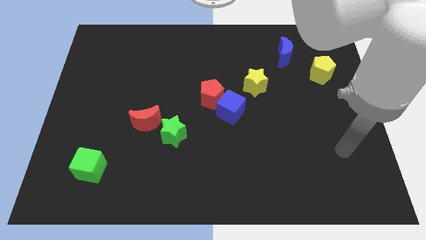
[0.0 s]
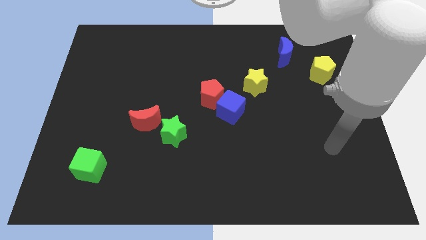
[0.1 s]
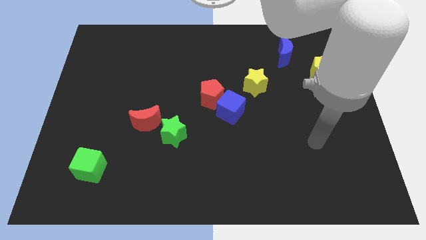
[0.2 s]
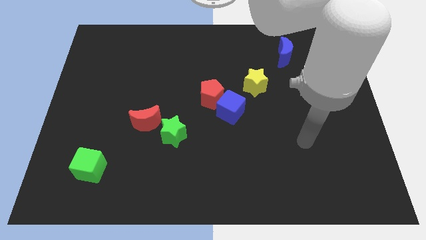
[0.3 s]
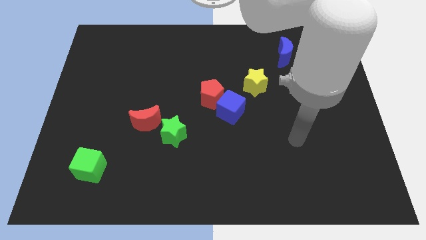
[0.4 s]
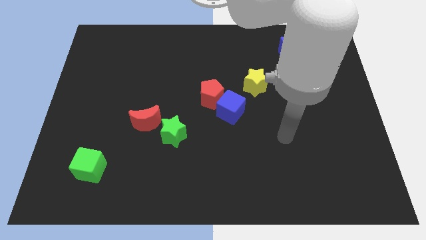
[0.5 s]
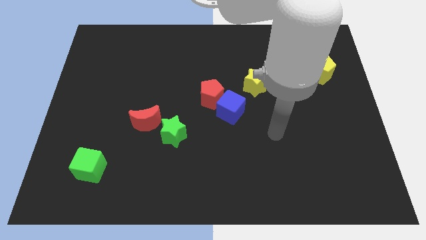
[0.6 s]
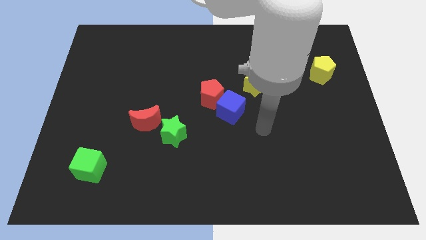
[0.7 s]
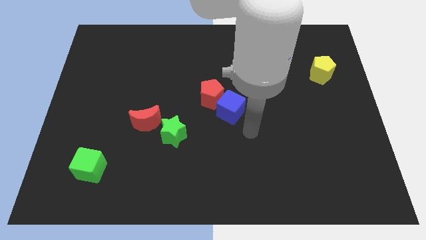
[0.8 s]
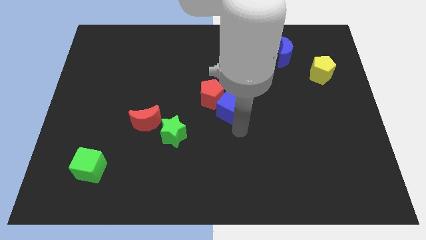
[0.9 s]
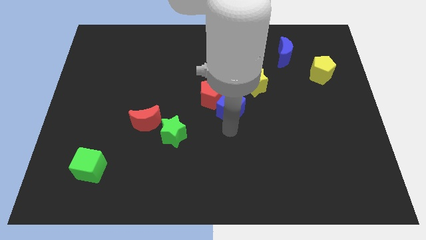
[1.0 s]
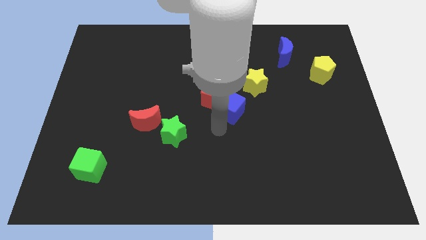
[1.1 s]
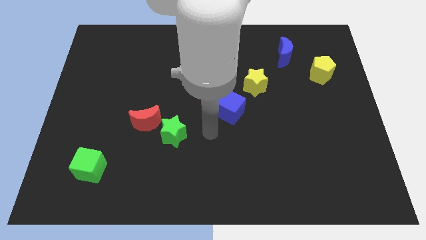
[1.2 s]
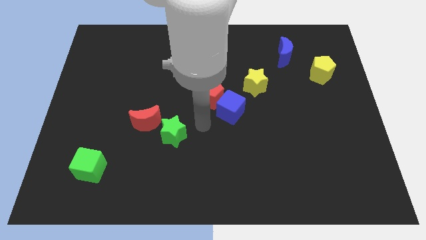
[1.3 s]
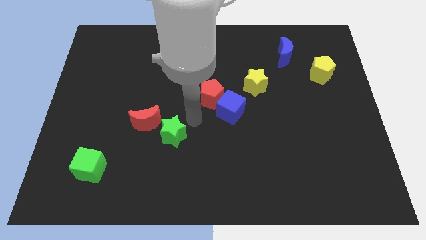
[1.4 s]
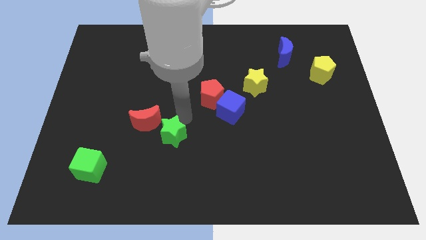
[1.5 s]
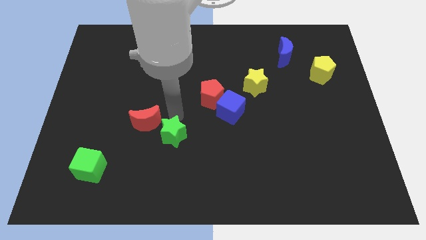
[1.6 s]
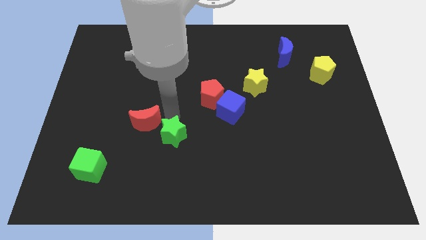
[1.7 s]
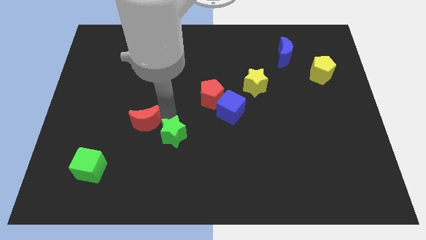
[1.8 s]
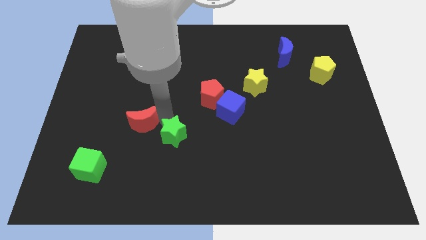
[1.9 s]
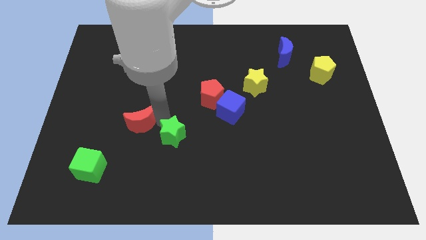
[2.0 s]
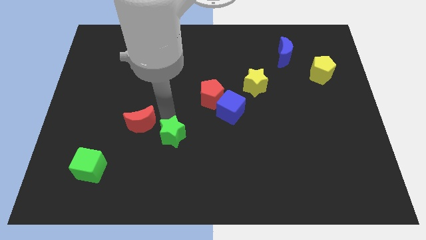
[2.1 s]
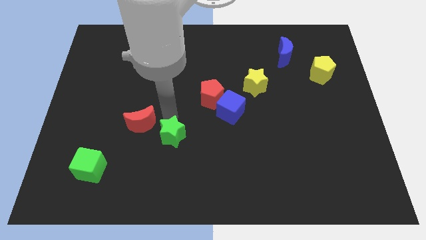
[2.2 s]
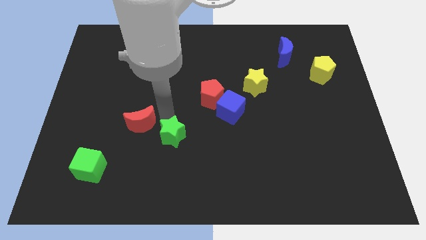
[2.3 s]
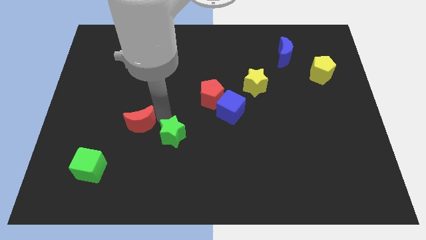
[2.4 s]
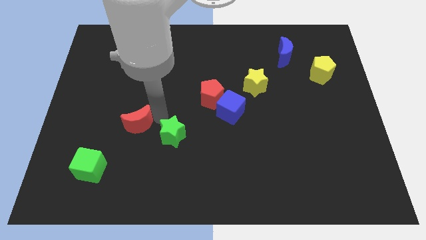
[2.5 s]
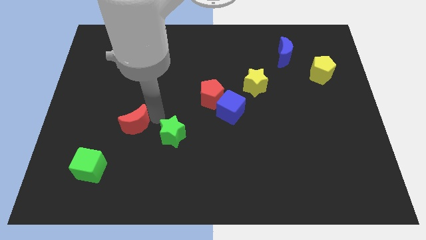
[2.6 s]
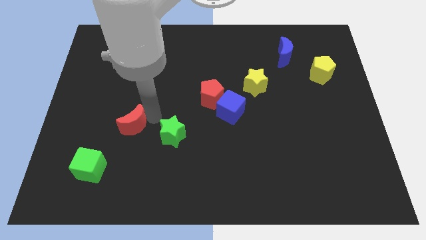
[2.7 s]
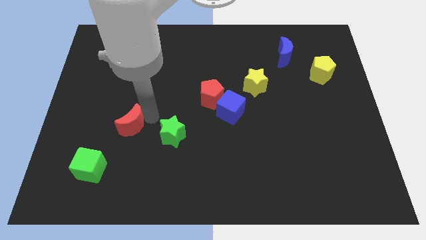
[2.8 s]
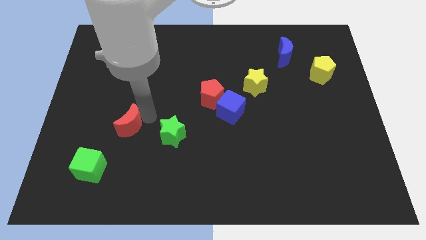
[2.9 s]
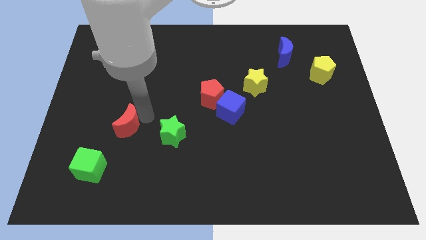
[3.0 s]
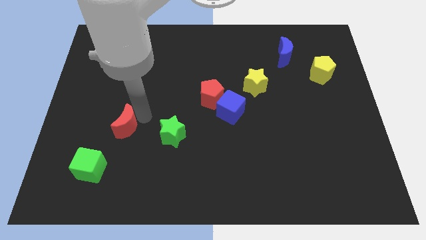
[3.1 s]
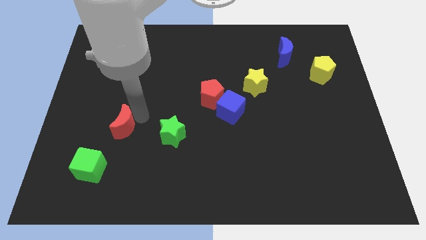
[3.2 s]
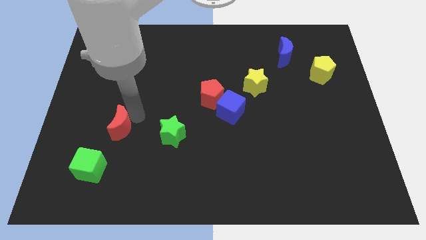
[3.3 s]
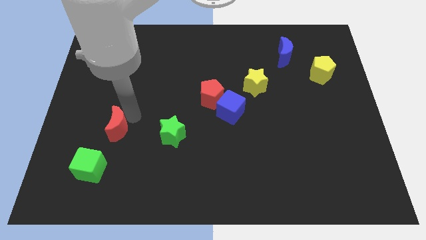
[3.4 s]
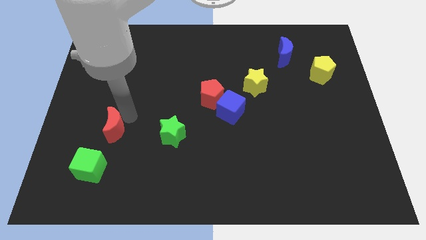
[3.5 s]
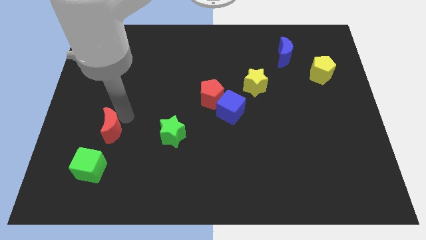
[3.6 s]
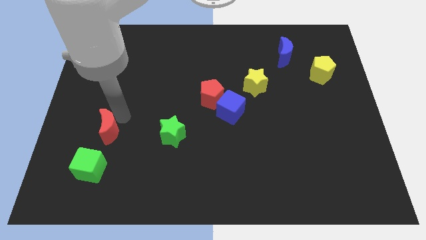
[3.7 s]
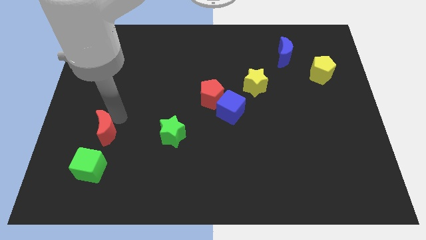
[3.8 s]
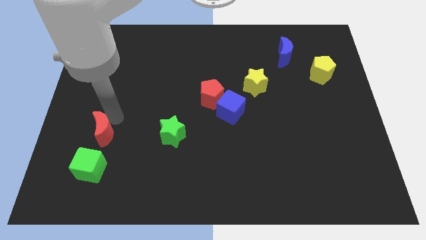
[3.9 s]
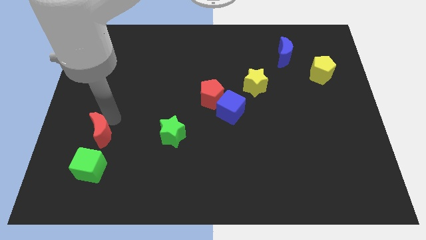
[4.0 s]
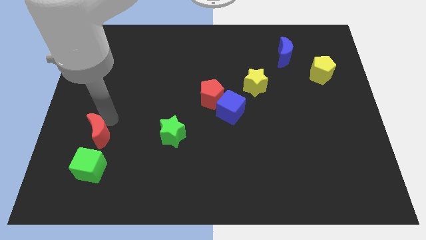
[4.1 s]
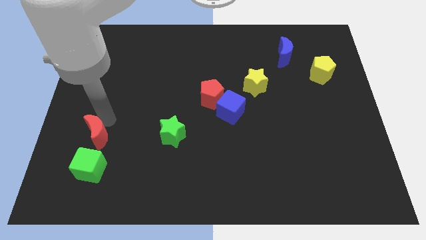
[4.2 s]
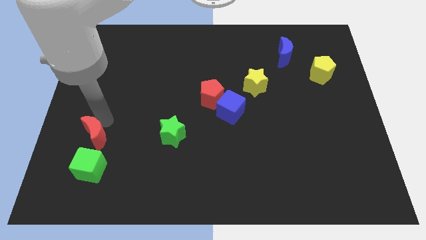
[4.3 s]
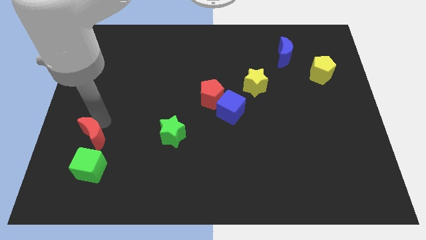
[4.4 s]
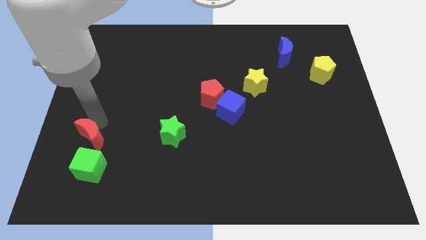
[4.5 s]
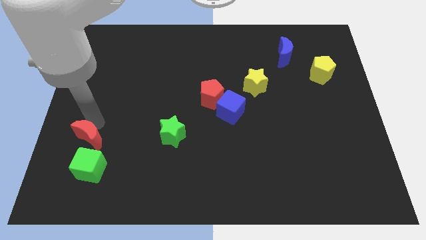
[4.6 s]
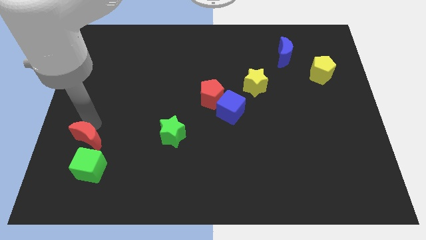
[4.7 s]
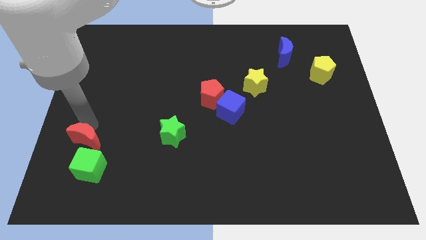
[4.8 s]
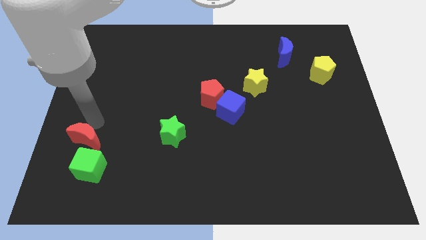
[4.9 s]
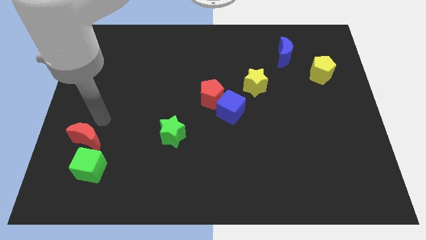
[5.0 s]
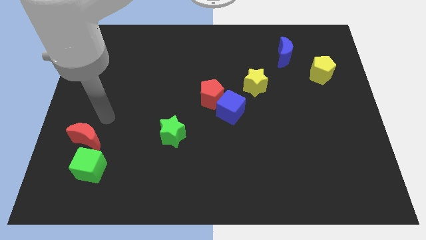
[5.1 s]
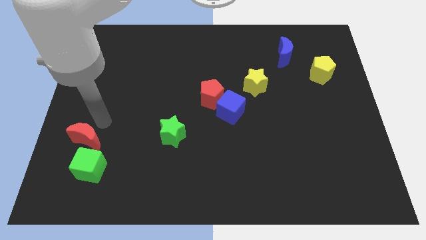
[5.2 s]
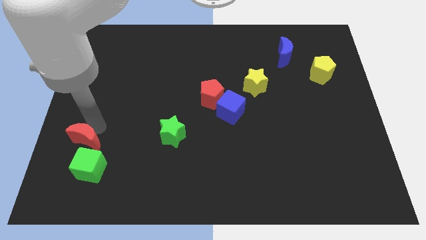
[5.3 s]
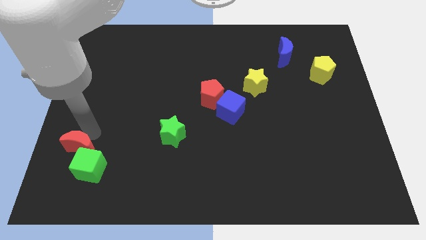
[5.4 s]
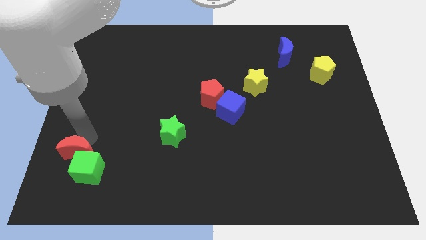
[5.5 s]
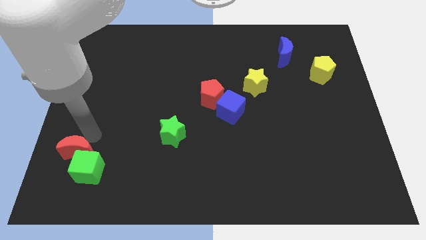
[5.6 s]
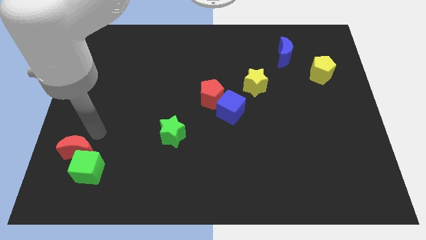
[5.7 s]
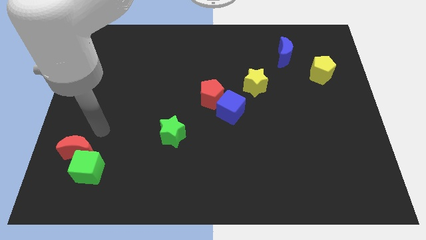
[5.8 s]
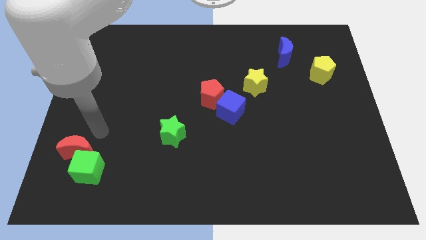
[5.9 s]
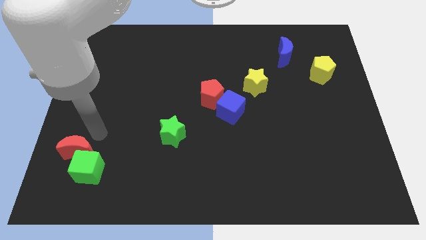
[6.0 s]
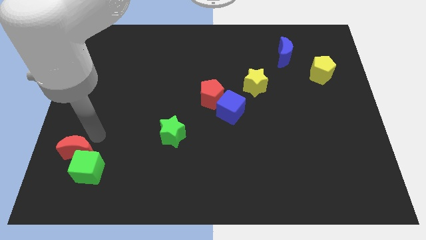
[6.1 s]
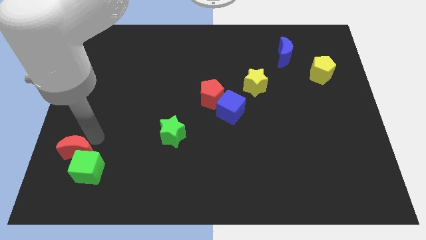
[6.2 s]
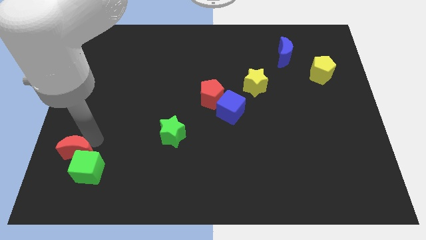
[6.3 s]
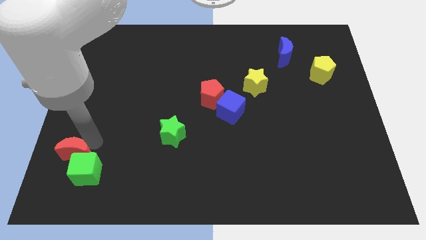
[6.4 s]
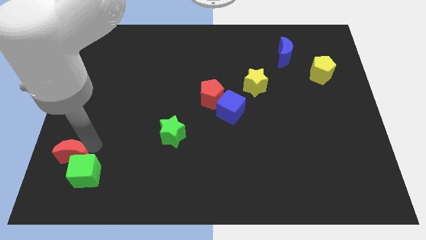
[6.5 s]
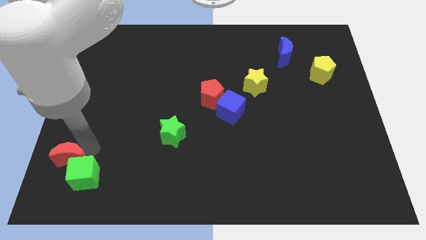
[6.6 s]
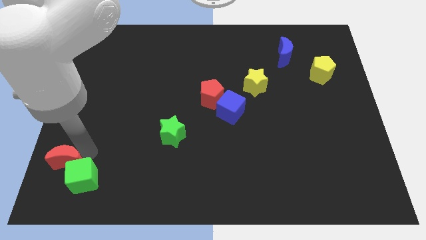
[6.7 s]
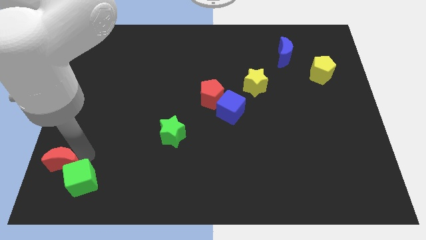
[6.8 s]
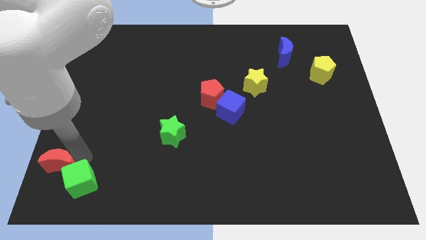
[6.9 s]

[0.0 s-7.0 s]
put the red moon to the bottom left corner

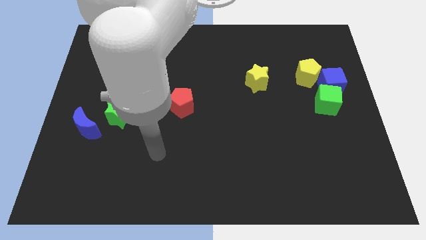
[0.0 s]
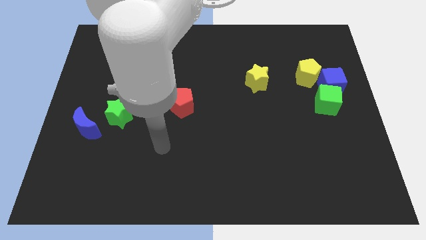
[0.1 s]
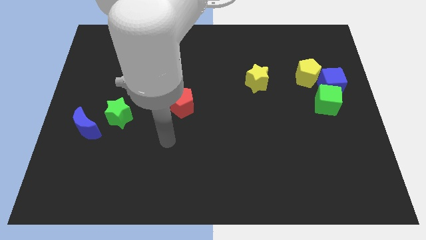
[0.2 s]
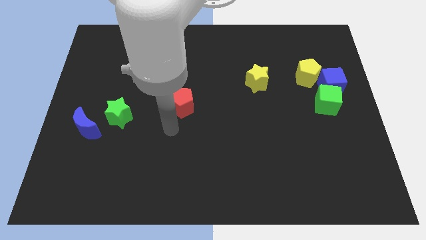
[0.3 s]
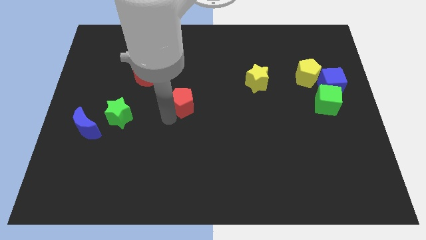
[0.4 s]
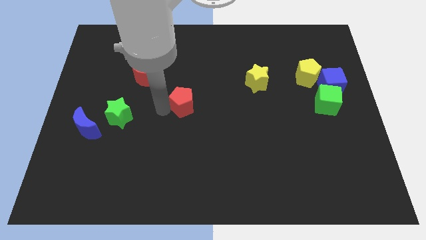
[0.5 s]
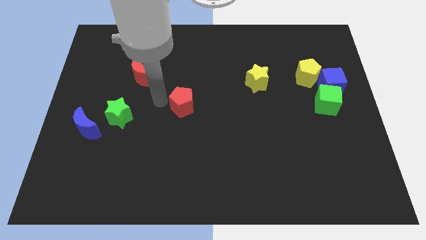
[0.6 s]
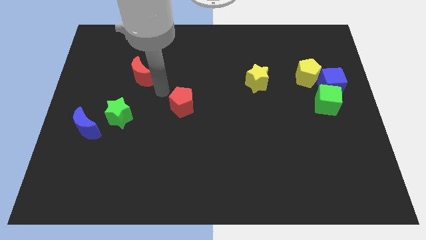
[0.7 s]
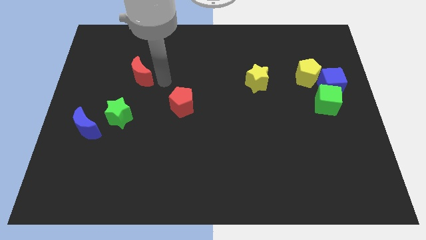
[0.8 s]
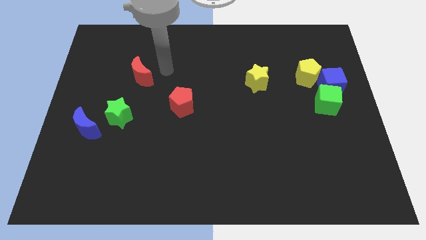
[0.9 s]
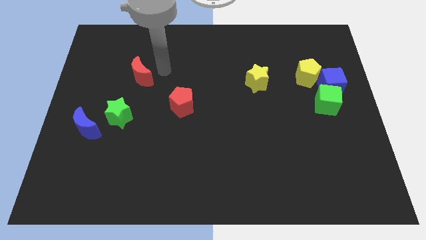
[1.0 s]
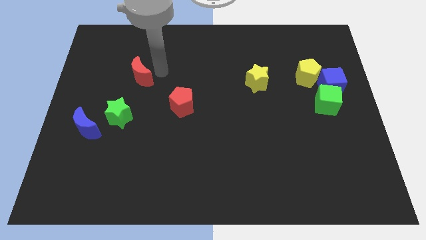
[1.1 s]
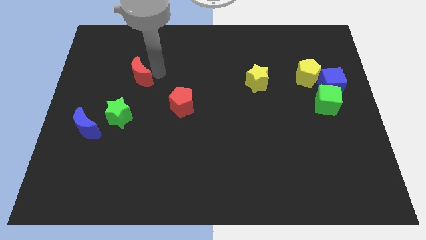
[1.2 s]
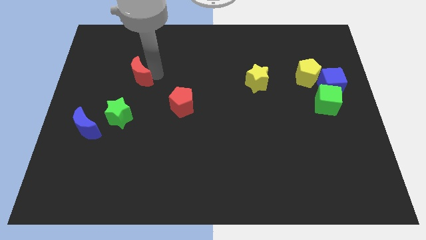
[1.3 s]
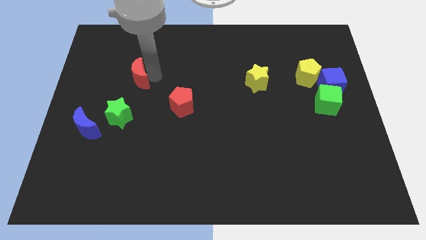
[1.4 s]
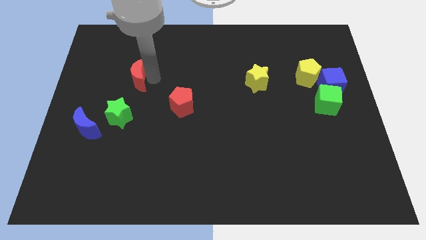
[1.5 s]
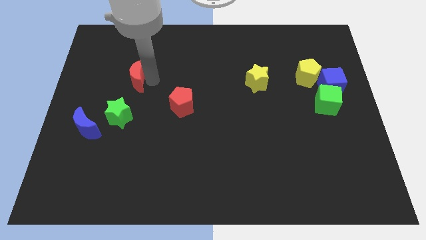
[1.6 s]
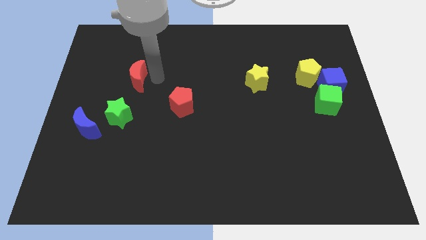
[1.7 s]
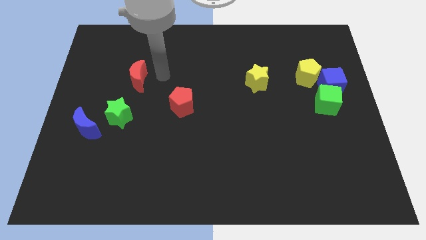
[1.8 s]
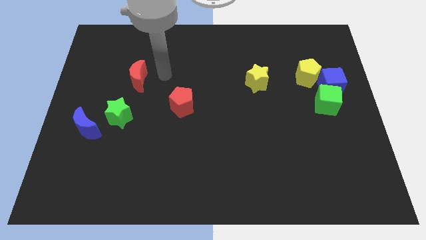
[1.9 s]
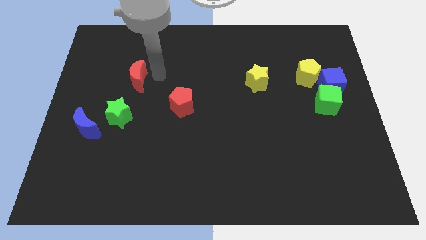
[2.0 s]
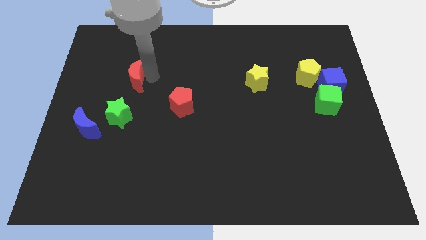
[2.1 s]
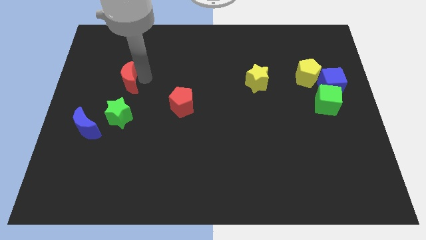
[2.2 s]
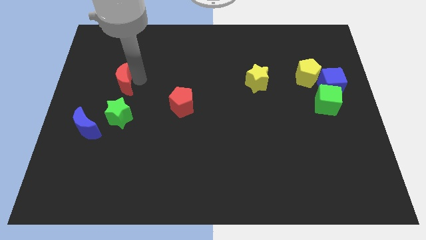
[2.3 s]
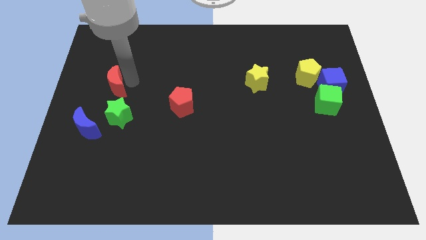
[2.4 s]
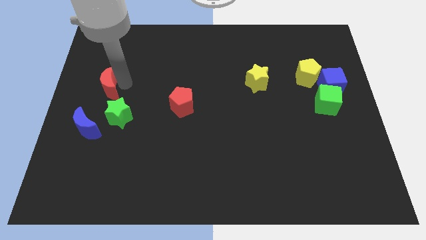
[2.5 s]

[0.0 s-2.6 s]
slide the red moon to the left side
